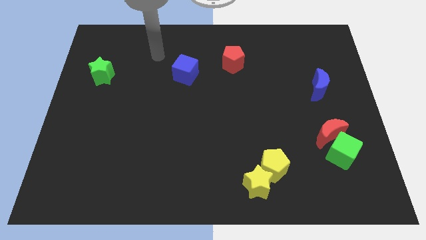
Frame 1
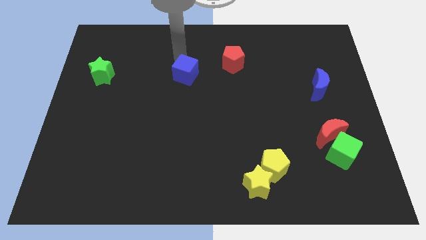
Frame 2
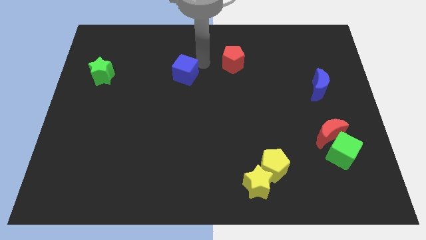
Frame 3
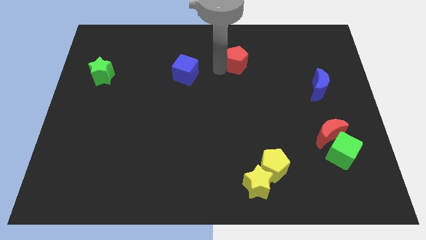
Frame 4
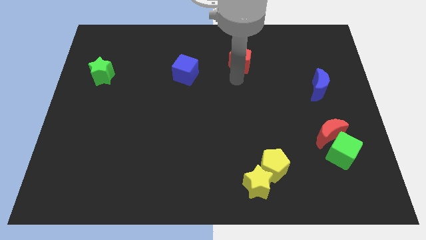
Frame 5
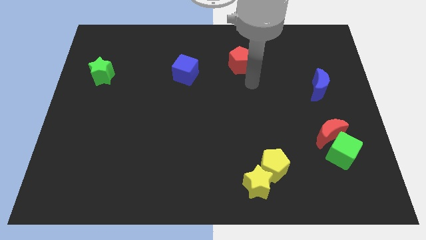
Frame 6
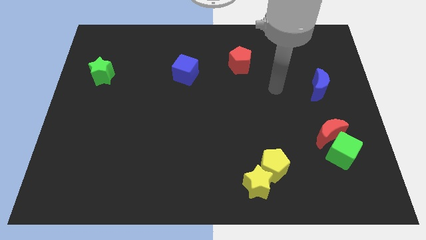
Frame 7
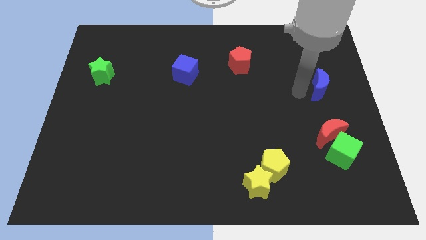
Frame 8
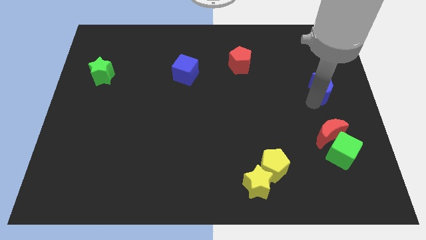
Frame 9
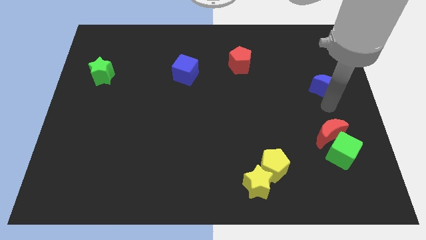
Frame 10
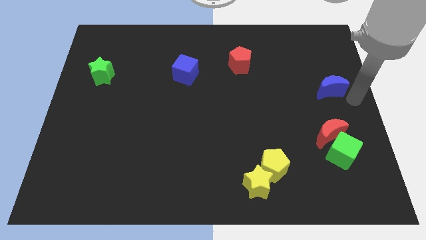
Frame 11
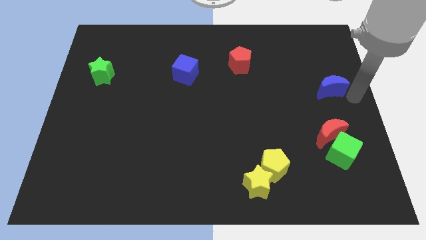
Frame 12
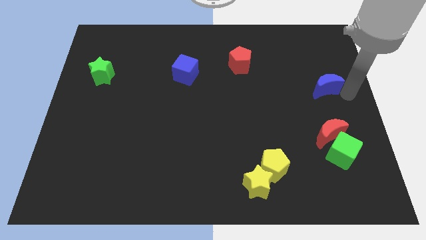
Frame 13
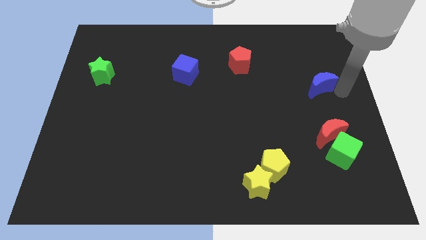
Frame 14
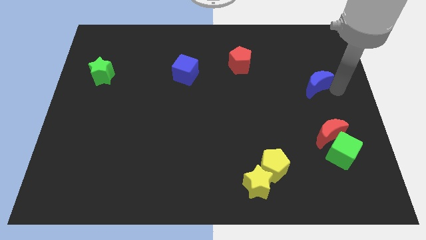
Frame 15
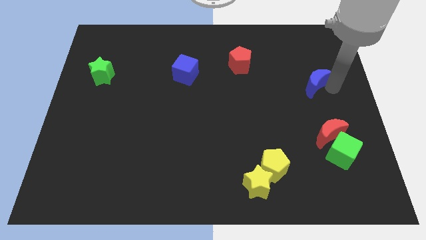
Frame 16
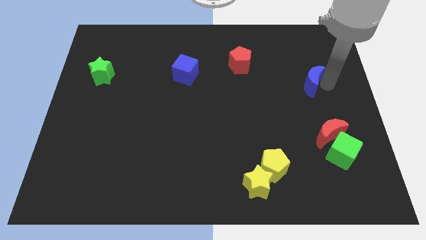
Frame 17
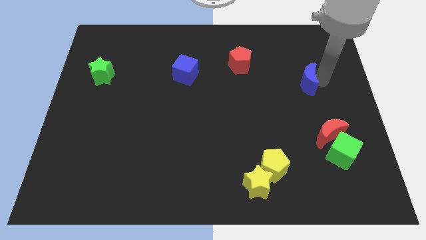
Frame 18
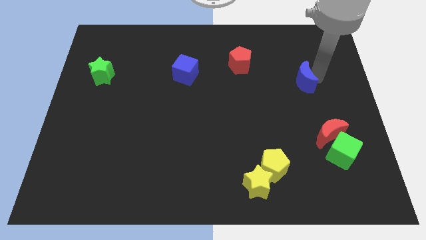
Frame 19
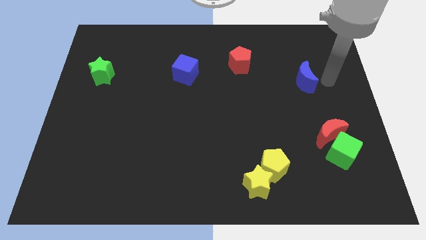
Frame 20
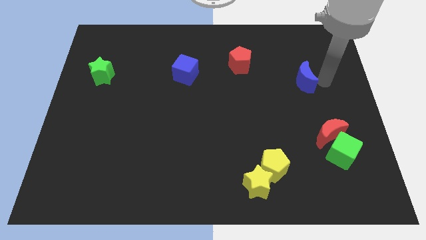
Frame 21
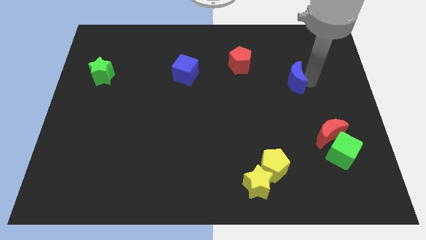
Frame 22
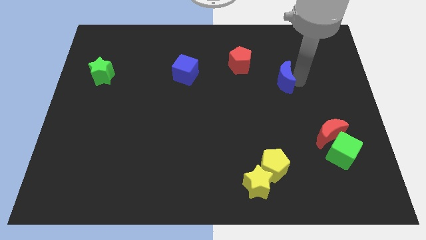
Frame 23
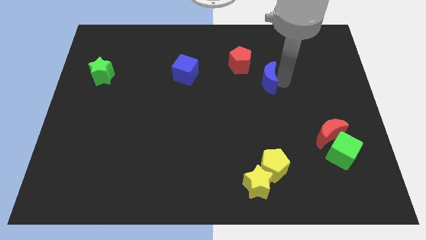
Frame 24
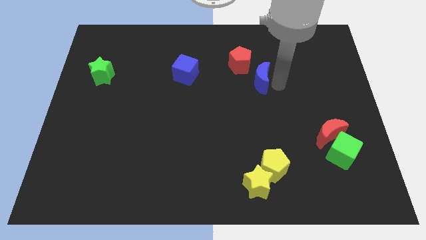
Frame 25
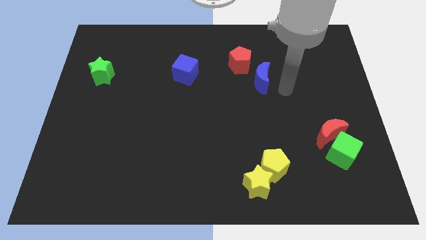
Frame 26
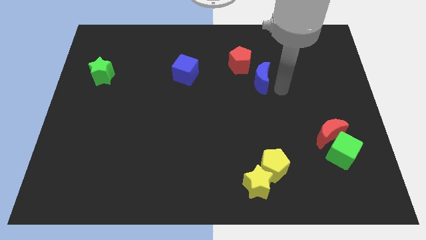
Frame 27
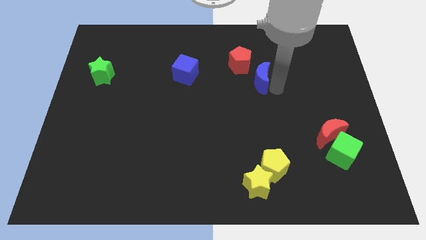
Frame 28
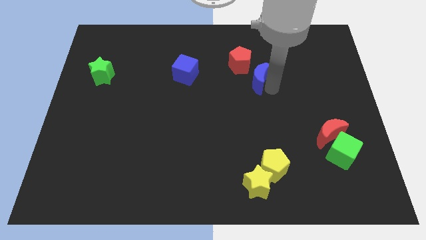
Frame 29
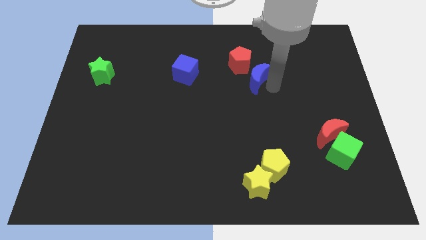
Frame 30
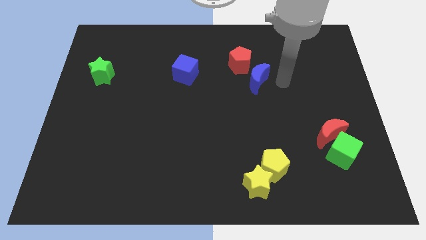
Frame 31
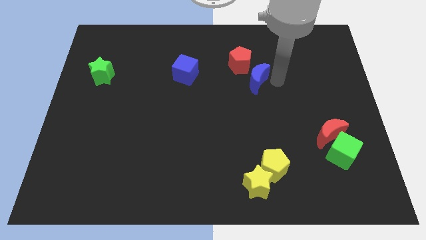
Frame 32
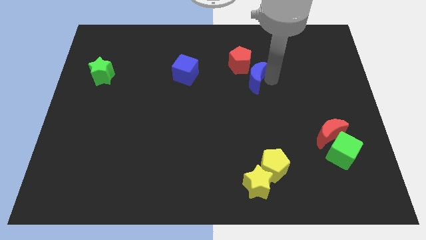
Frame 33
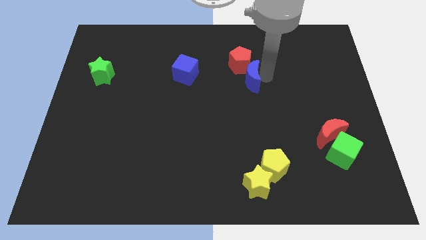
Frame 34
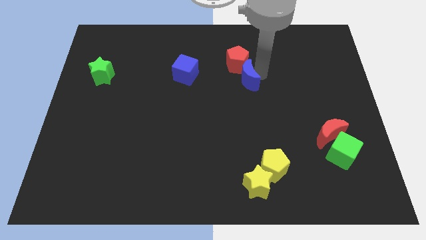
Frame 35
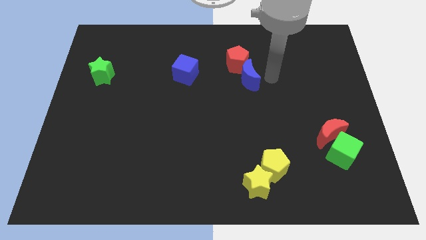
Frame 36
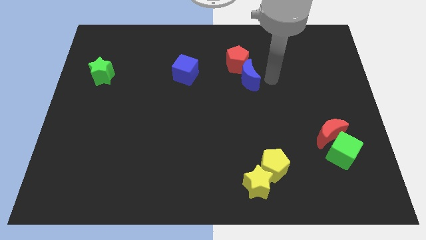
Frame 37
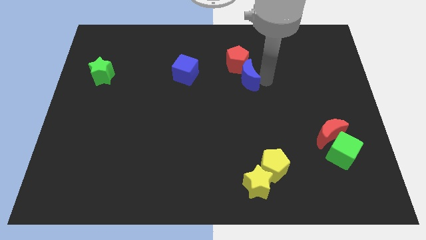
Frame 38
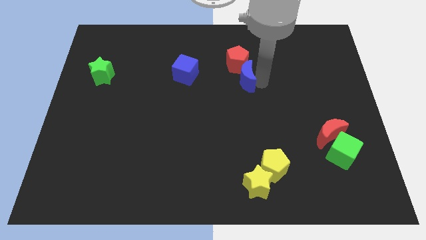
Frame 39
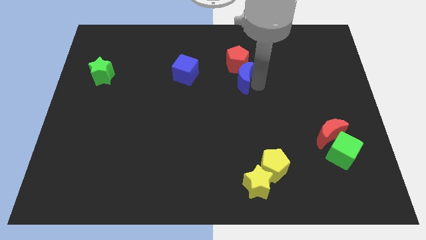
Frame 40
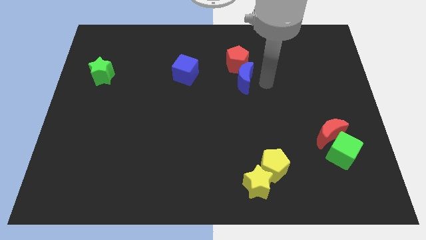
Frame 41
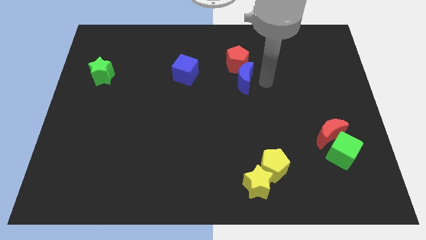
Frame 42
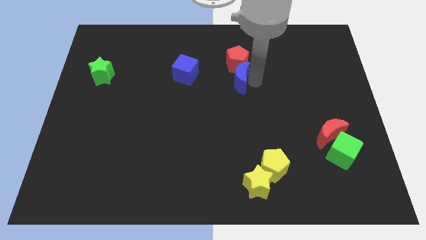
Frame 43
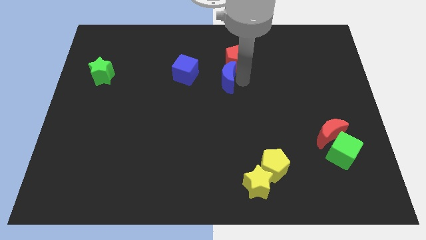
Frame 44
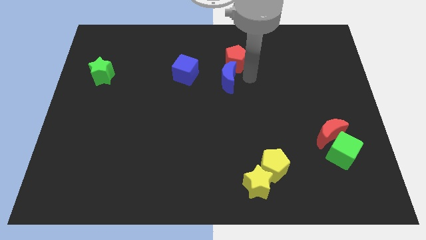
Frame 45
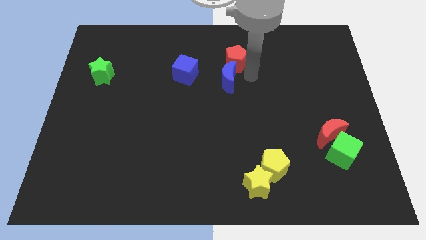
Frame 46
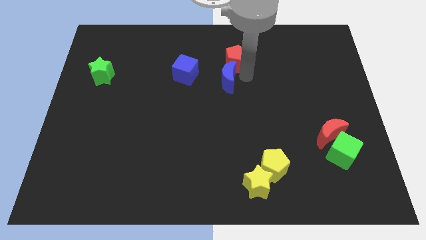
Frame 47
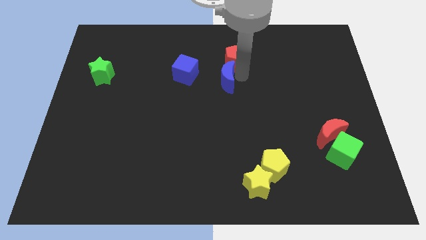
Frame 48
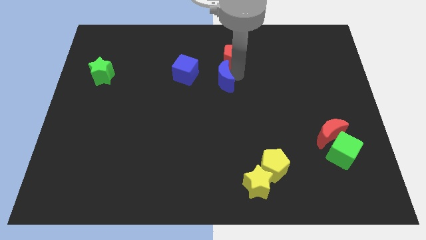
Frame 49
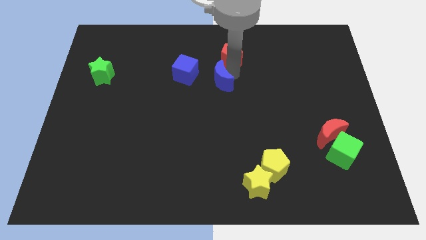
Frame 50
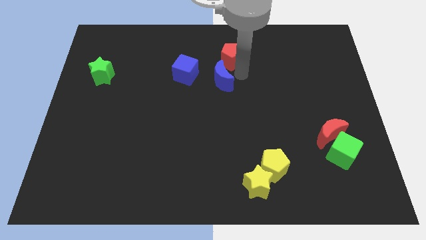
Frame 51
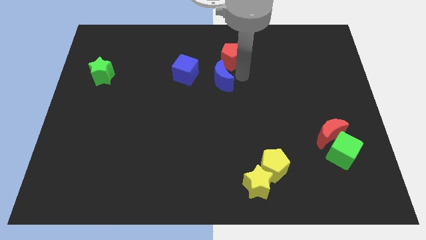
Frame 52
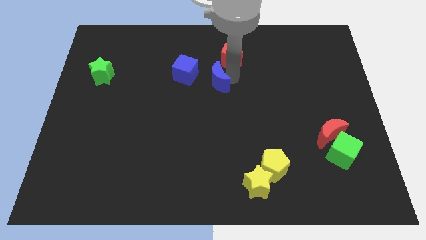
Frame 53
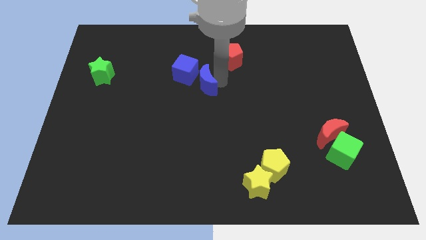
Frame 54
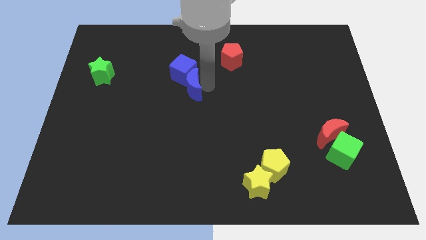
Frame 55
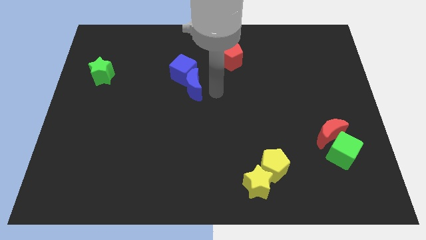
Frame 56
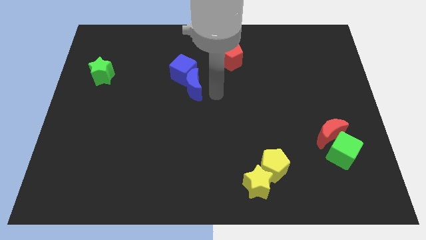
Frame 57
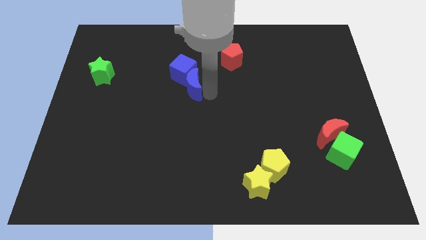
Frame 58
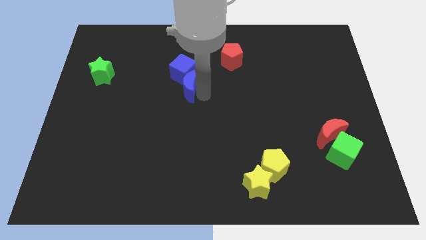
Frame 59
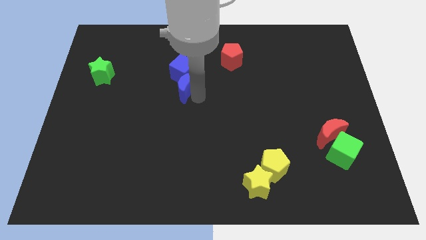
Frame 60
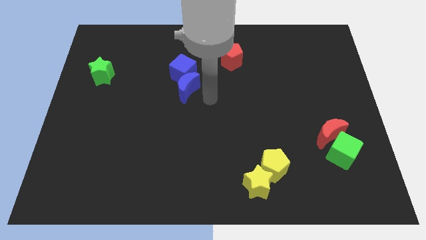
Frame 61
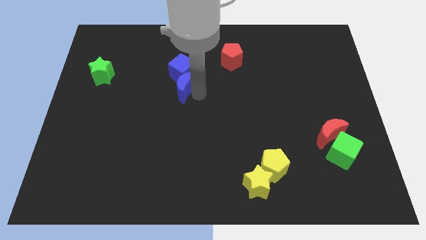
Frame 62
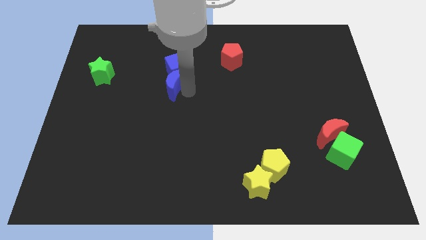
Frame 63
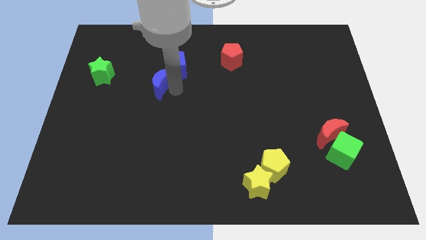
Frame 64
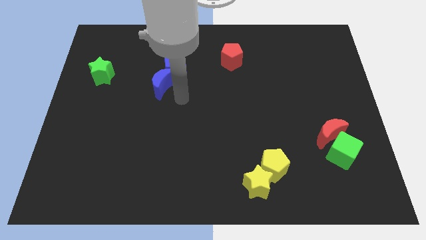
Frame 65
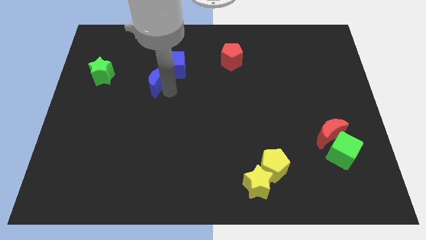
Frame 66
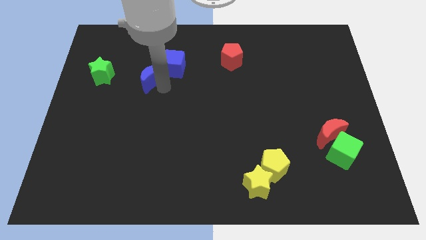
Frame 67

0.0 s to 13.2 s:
slide the blue moon to the left side of the blue cube

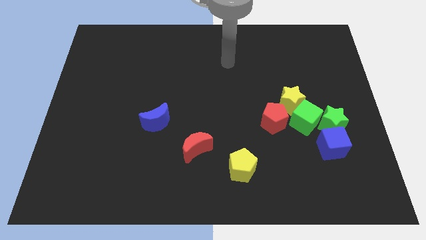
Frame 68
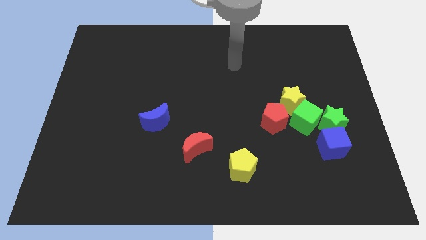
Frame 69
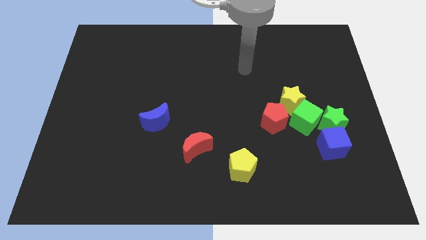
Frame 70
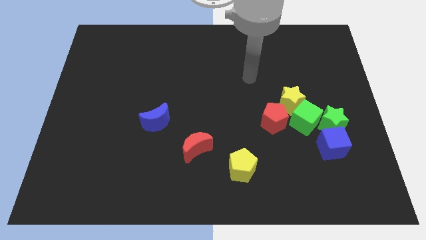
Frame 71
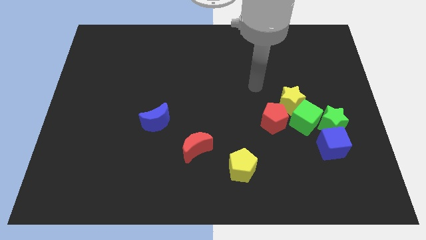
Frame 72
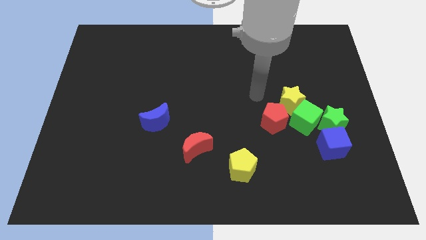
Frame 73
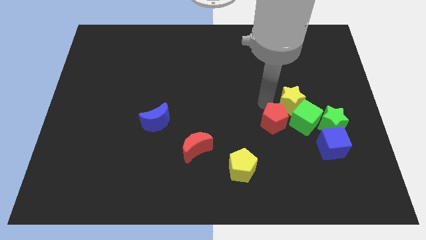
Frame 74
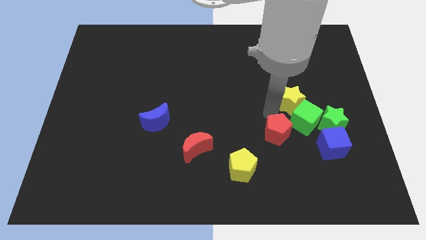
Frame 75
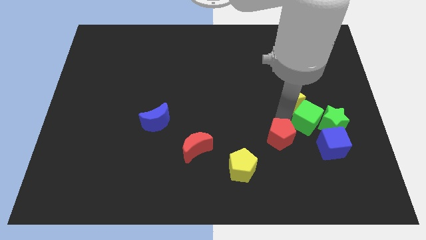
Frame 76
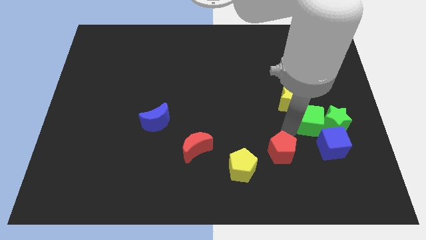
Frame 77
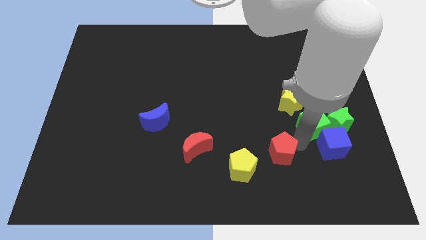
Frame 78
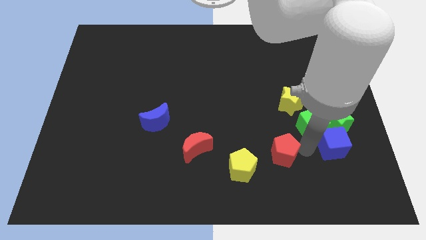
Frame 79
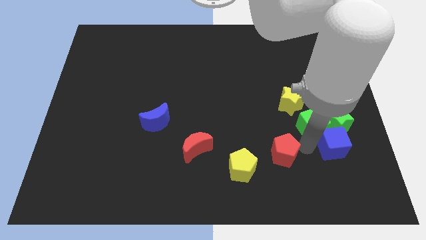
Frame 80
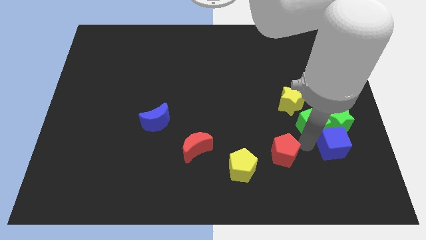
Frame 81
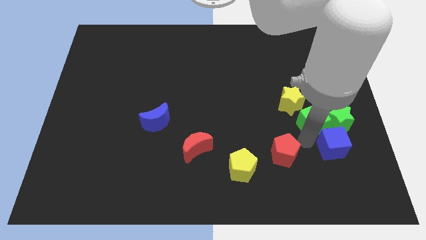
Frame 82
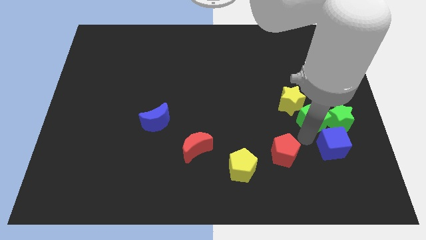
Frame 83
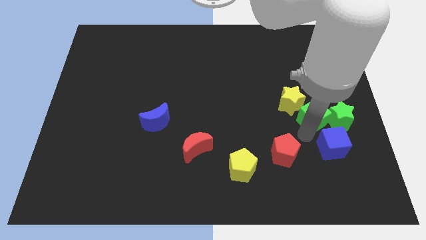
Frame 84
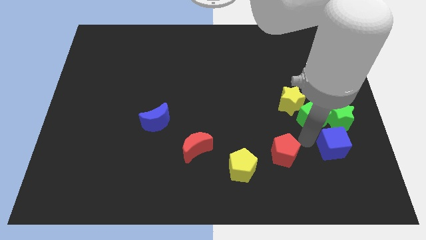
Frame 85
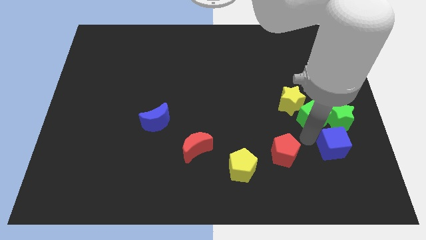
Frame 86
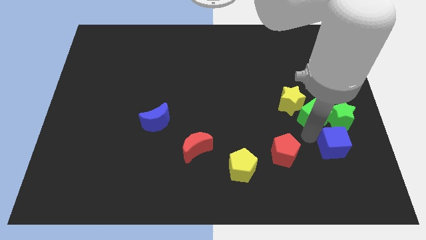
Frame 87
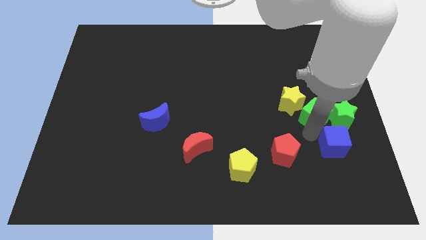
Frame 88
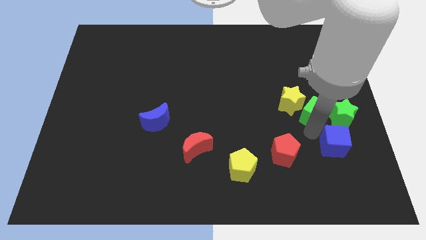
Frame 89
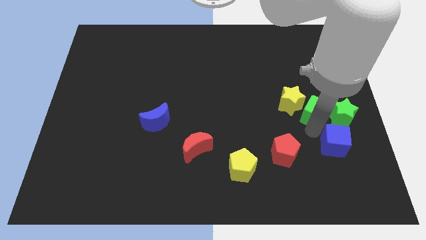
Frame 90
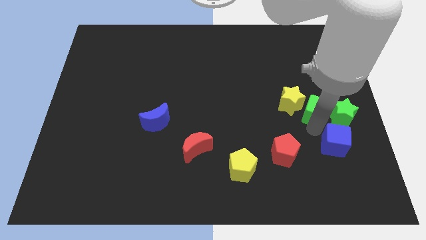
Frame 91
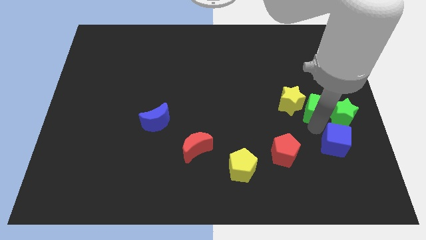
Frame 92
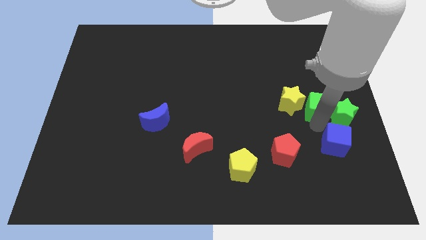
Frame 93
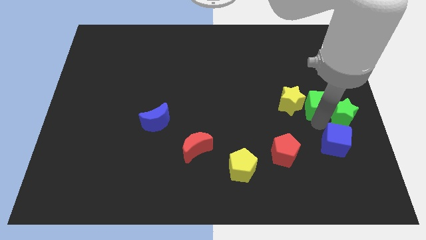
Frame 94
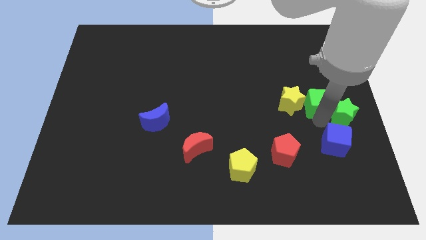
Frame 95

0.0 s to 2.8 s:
put the green cube to the top right side of the yellow star
